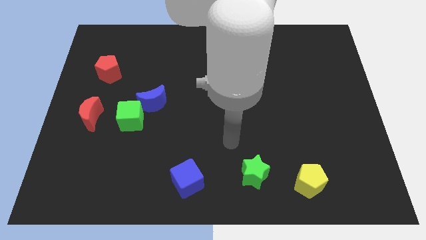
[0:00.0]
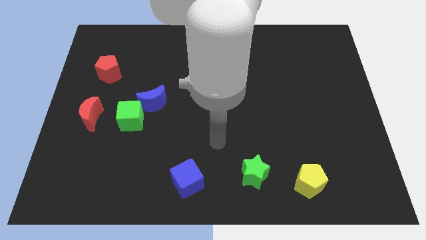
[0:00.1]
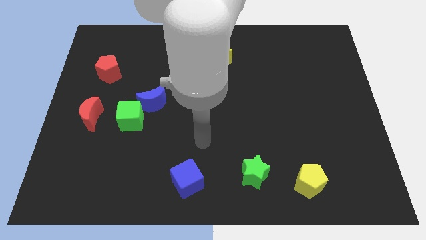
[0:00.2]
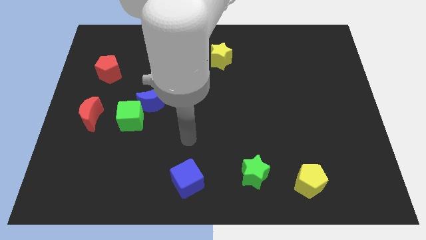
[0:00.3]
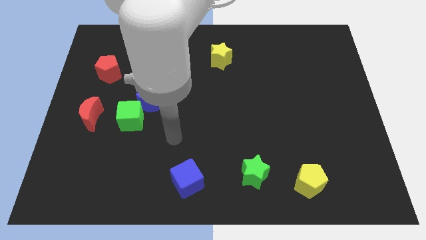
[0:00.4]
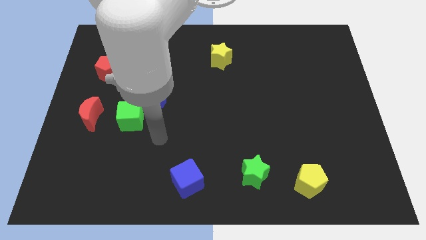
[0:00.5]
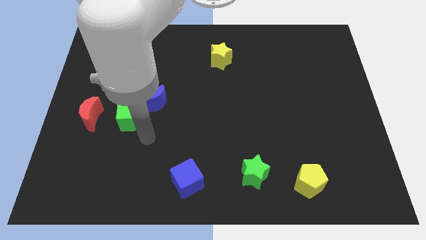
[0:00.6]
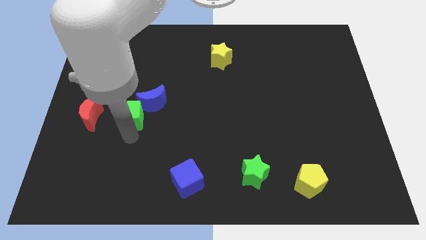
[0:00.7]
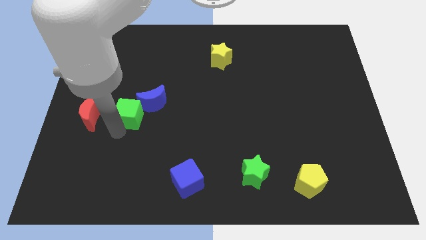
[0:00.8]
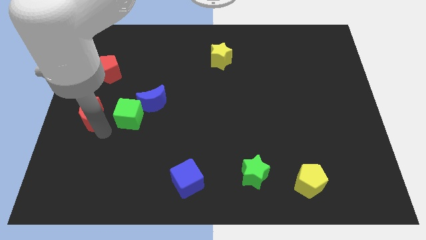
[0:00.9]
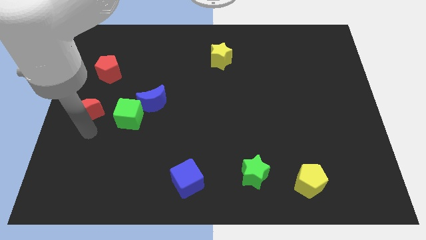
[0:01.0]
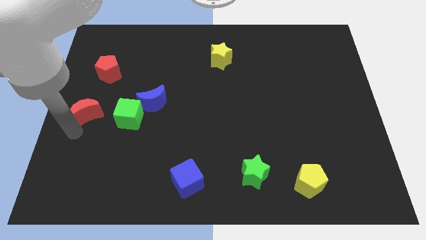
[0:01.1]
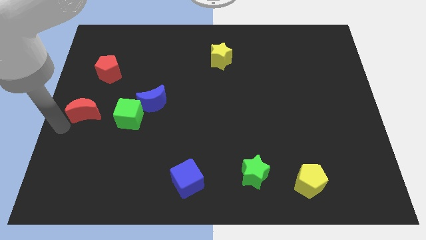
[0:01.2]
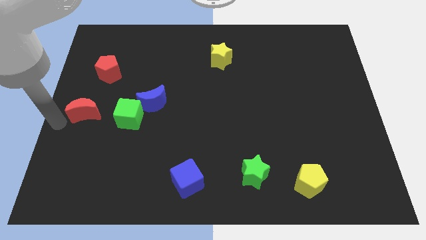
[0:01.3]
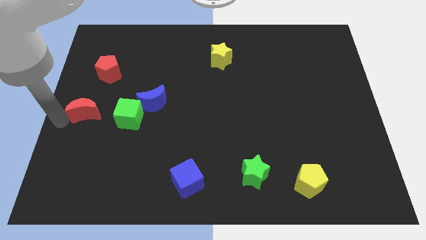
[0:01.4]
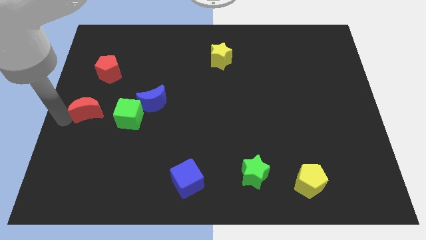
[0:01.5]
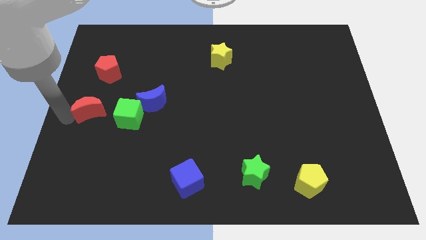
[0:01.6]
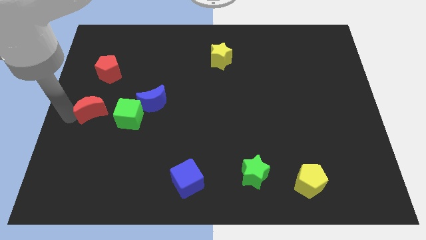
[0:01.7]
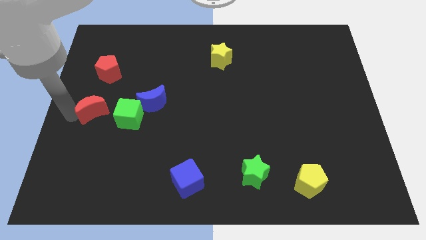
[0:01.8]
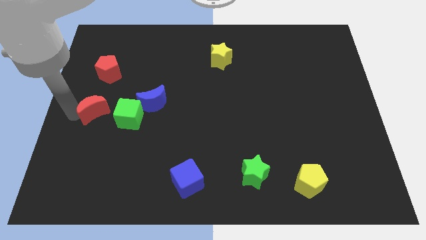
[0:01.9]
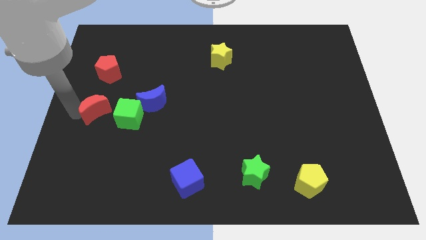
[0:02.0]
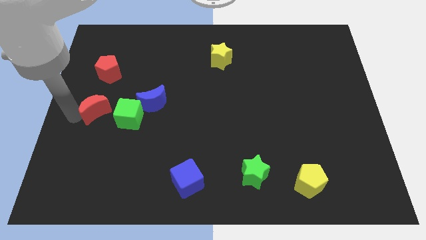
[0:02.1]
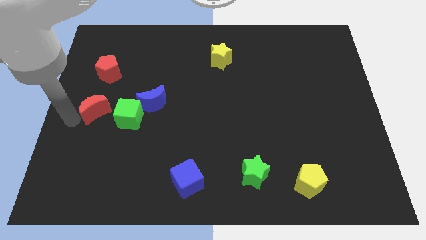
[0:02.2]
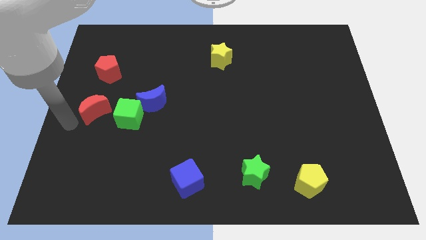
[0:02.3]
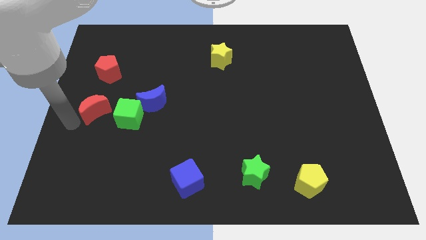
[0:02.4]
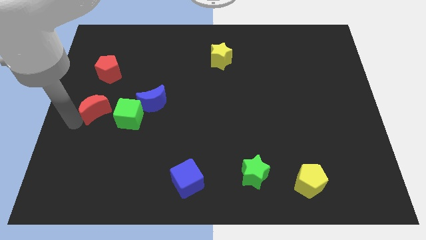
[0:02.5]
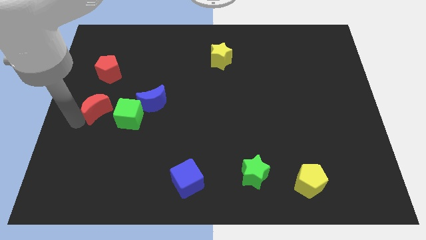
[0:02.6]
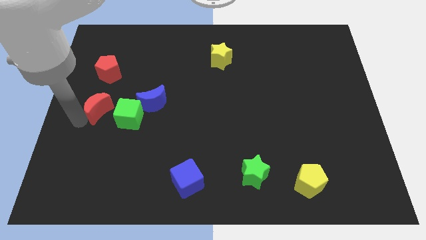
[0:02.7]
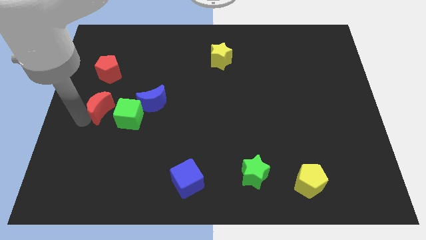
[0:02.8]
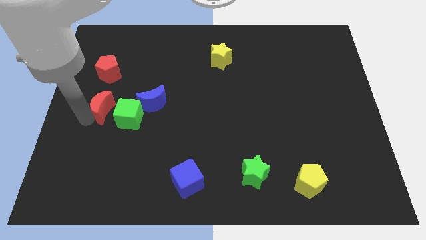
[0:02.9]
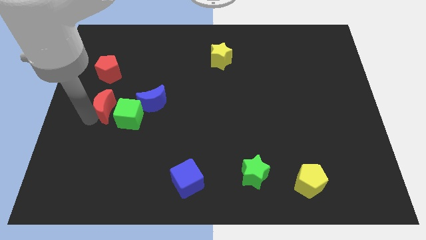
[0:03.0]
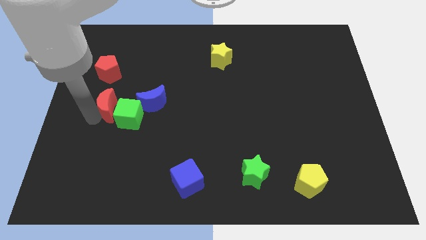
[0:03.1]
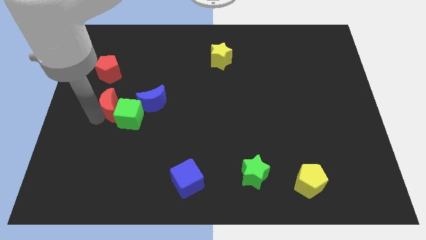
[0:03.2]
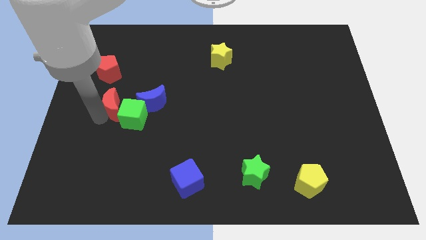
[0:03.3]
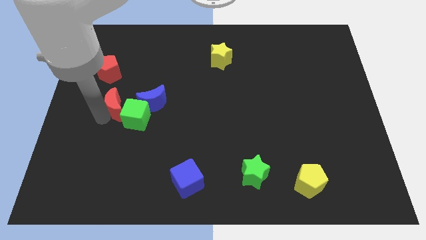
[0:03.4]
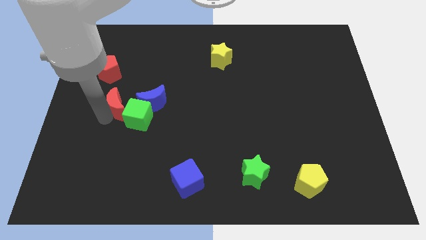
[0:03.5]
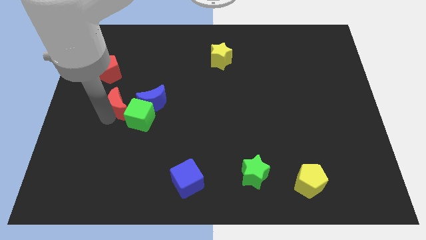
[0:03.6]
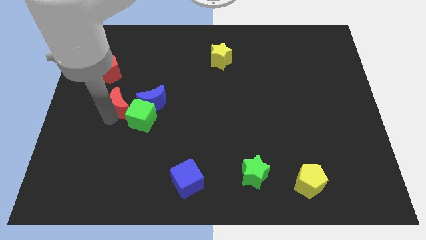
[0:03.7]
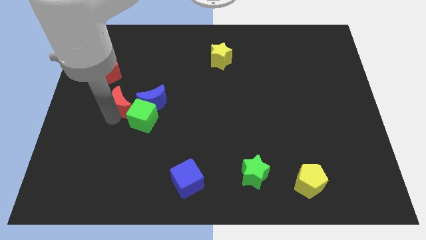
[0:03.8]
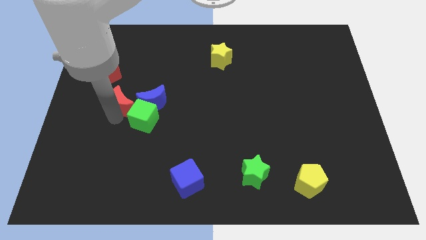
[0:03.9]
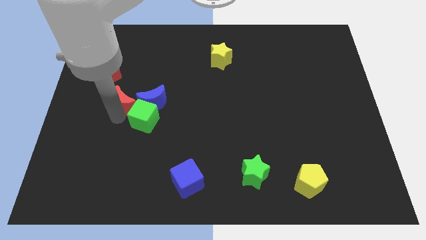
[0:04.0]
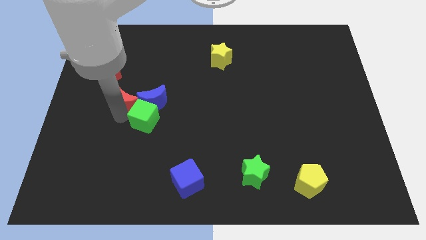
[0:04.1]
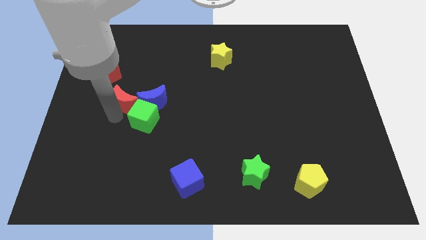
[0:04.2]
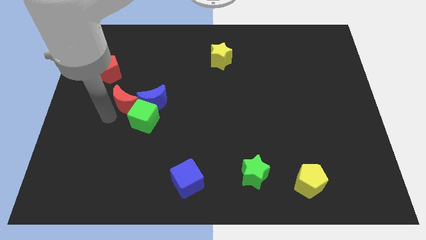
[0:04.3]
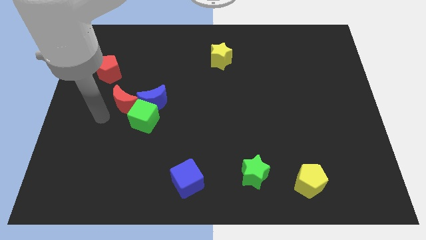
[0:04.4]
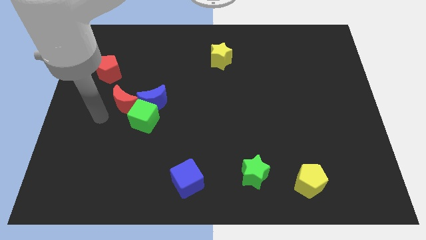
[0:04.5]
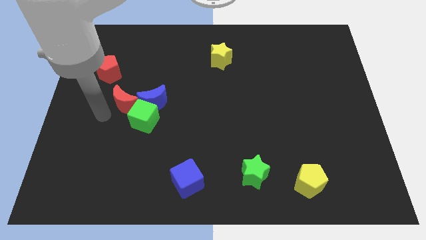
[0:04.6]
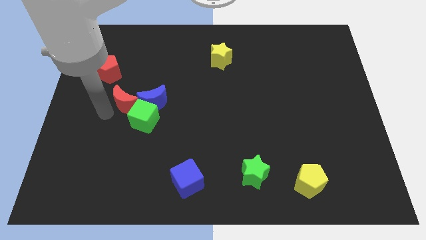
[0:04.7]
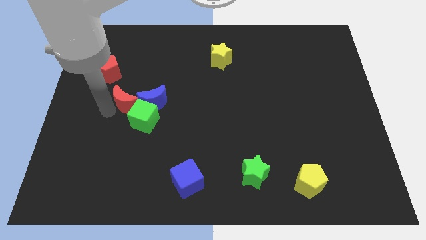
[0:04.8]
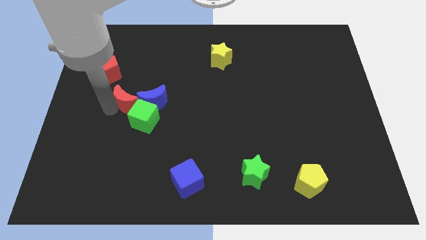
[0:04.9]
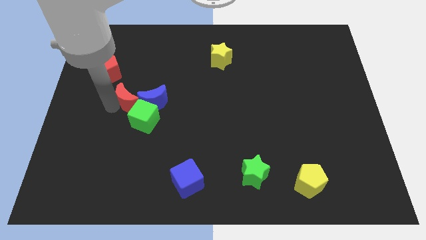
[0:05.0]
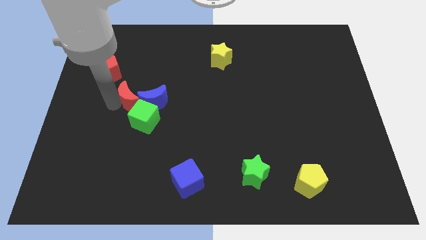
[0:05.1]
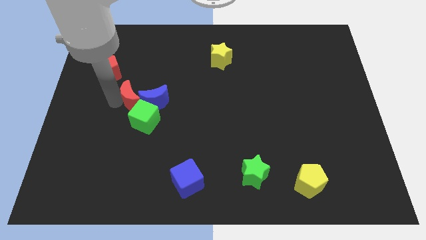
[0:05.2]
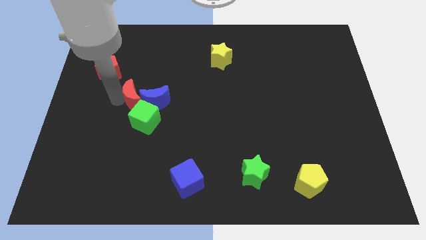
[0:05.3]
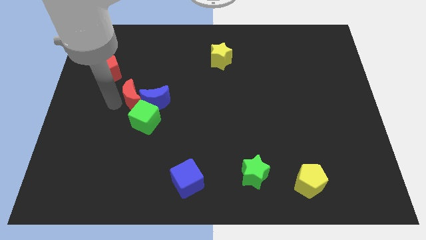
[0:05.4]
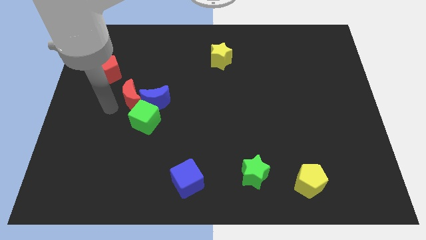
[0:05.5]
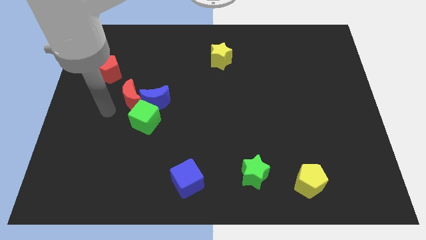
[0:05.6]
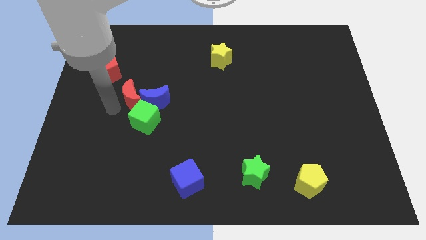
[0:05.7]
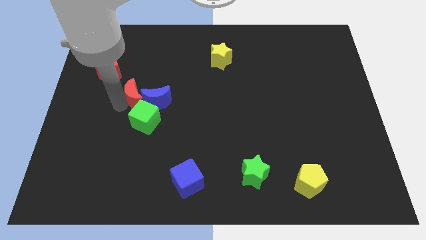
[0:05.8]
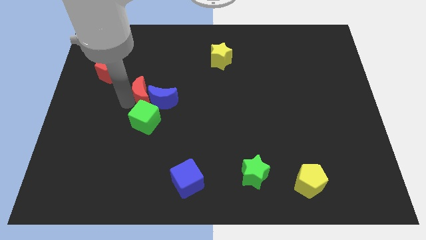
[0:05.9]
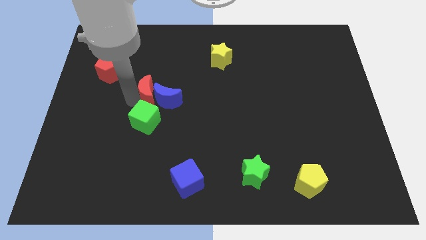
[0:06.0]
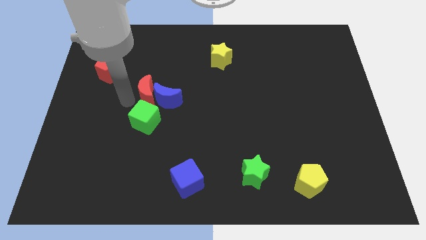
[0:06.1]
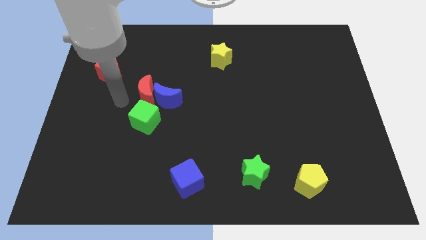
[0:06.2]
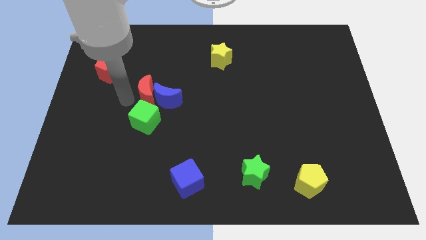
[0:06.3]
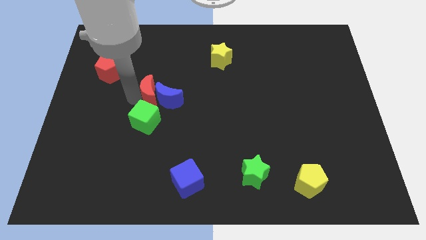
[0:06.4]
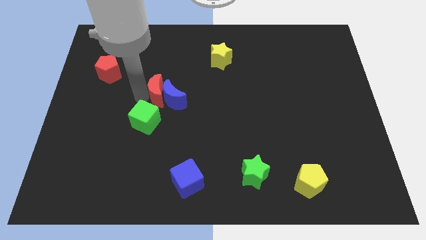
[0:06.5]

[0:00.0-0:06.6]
slide the red moon to the top right of the green cube

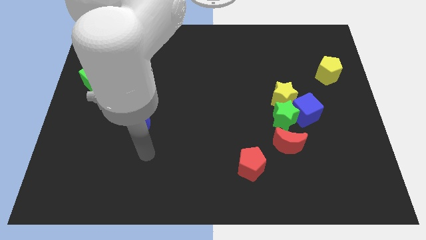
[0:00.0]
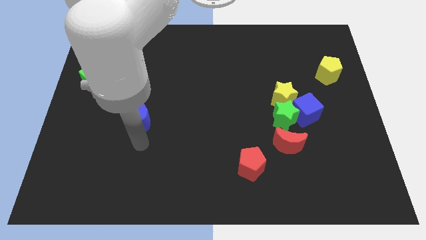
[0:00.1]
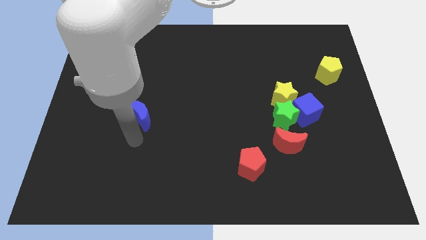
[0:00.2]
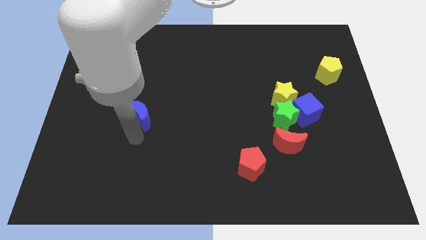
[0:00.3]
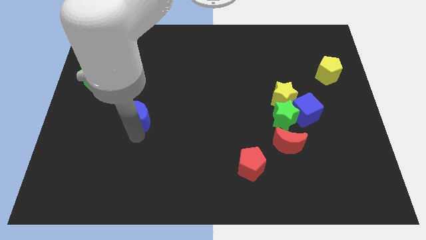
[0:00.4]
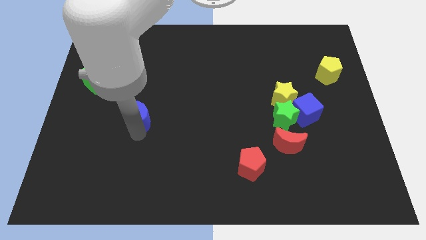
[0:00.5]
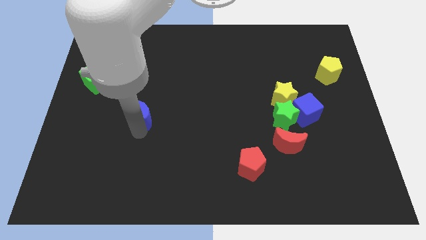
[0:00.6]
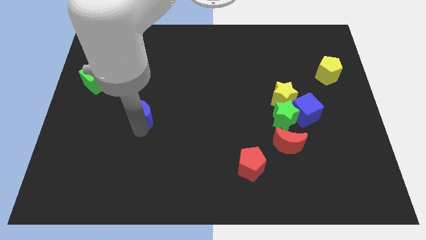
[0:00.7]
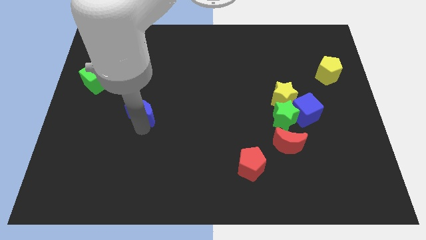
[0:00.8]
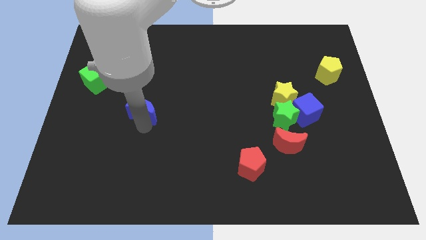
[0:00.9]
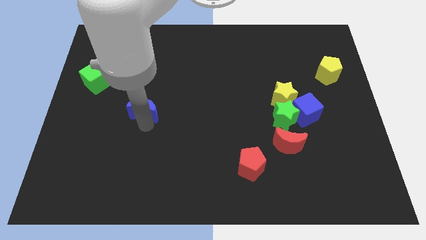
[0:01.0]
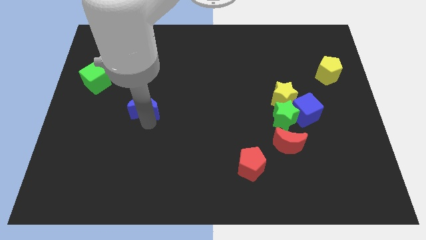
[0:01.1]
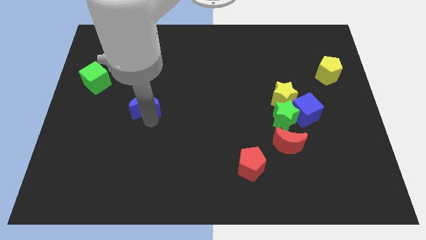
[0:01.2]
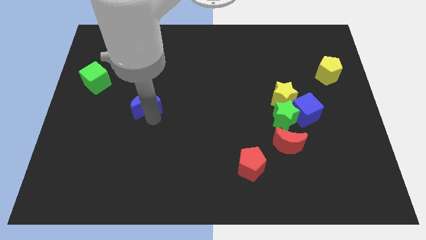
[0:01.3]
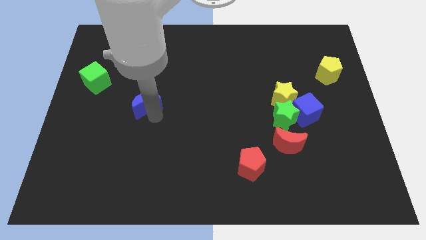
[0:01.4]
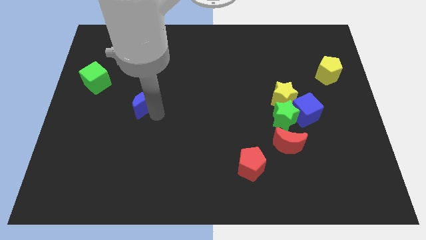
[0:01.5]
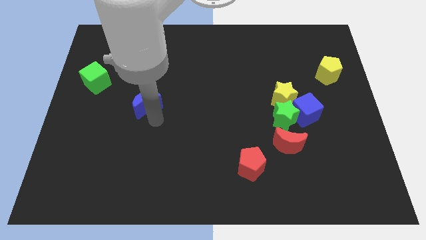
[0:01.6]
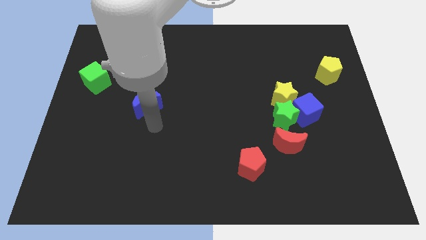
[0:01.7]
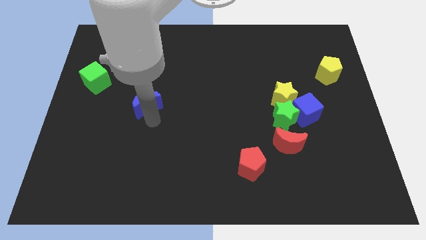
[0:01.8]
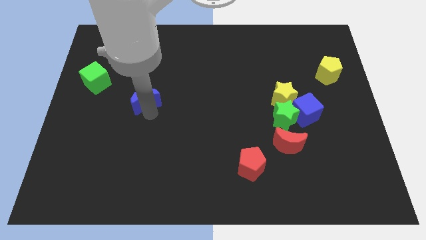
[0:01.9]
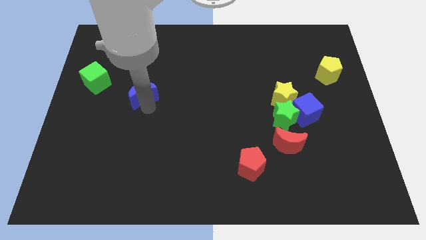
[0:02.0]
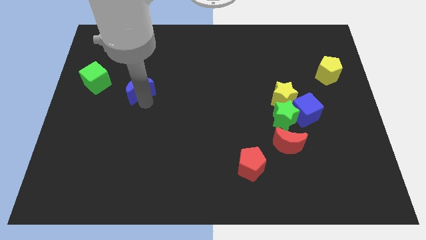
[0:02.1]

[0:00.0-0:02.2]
slide the blue moon right of the green cube

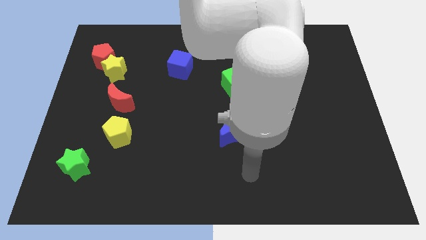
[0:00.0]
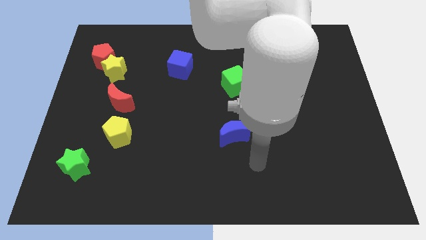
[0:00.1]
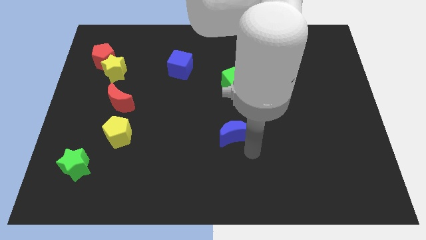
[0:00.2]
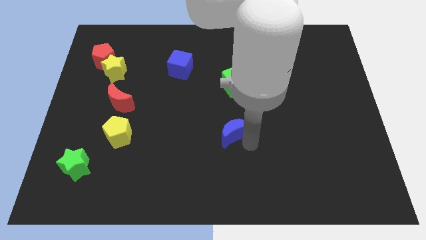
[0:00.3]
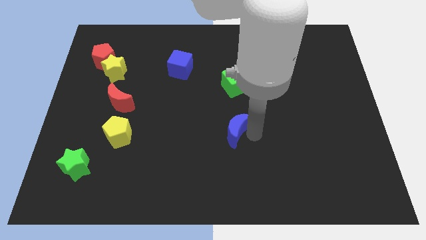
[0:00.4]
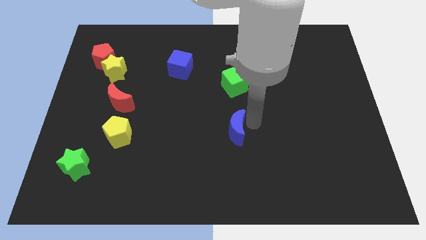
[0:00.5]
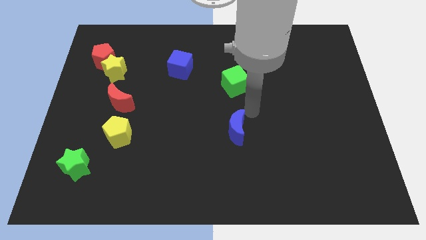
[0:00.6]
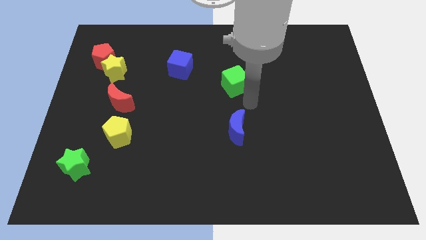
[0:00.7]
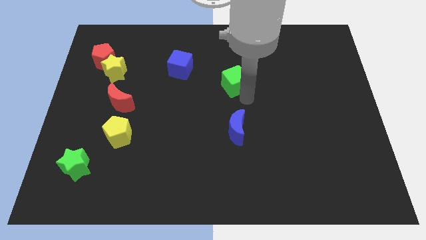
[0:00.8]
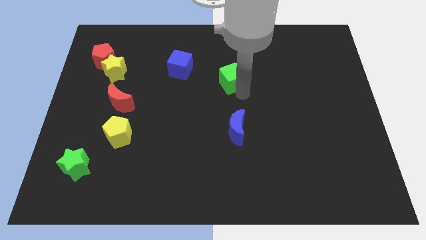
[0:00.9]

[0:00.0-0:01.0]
move the green cube to the right of the blue cube
